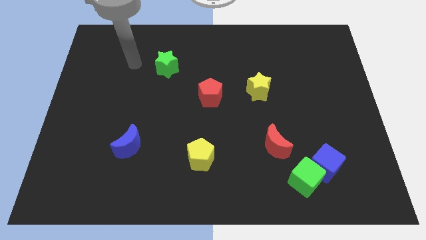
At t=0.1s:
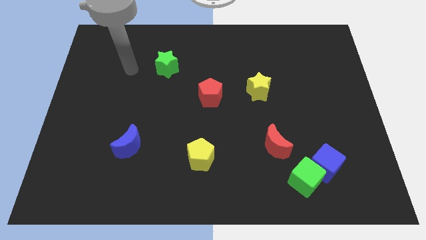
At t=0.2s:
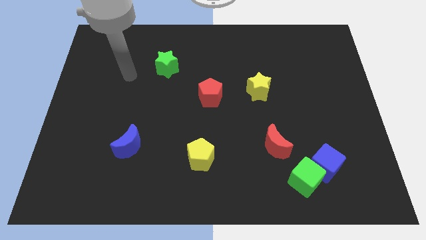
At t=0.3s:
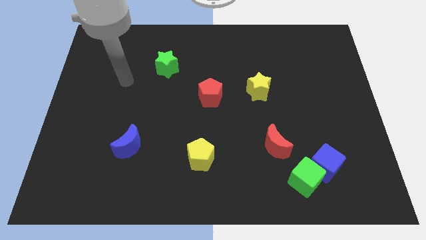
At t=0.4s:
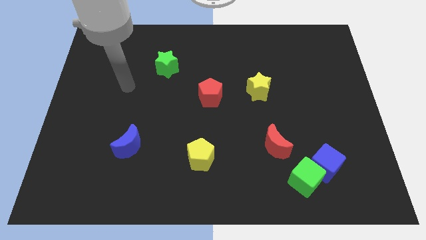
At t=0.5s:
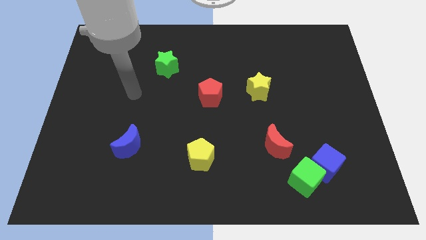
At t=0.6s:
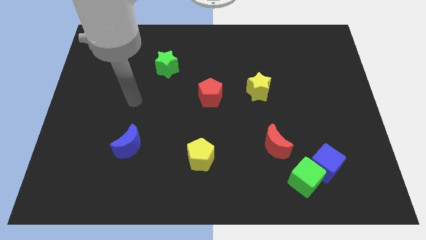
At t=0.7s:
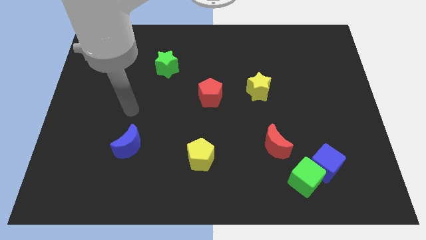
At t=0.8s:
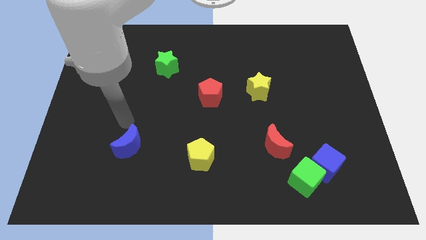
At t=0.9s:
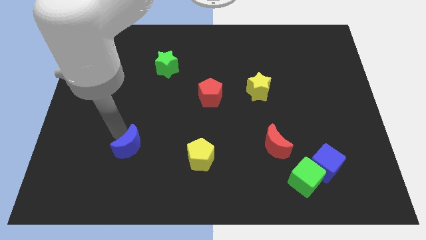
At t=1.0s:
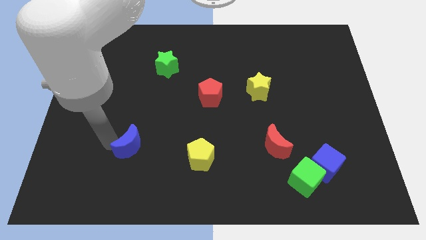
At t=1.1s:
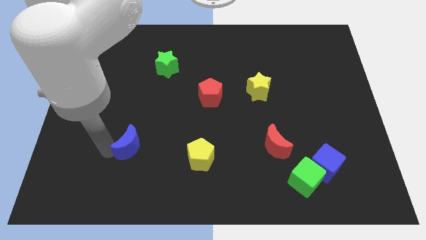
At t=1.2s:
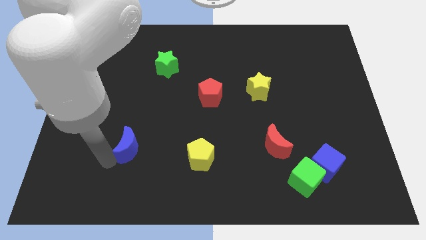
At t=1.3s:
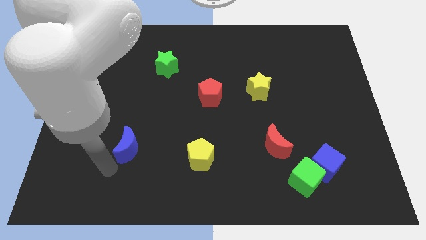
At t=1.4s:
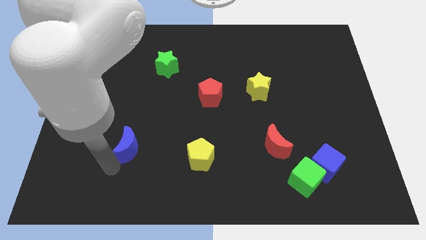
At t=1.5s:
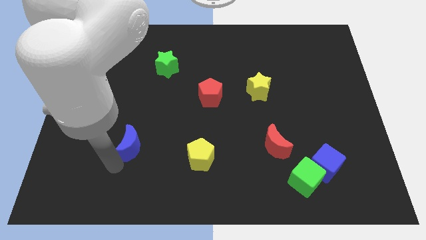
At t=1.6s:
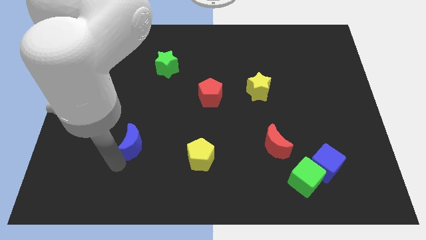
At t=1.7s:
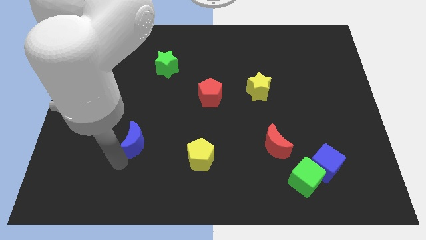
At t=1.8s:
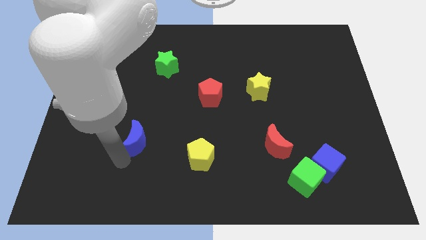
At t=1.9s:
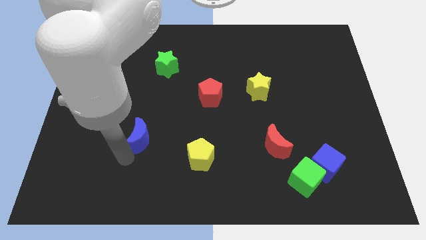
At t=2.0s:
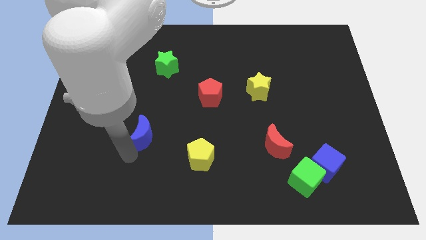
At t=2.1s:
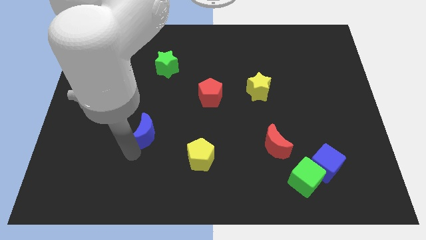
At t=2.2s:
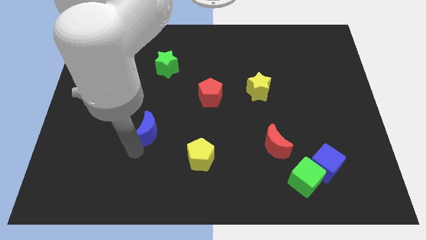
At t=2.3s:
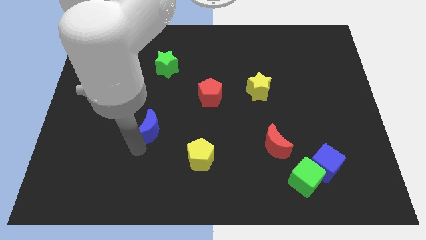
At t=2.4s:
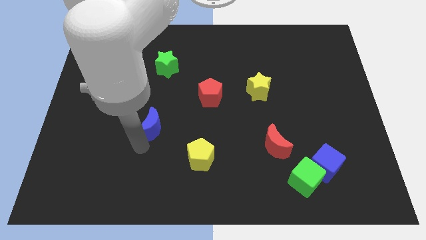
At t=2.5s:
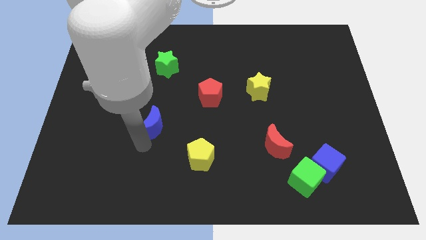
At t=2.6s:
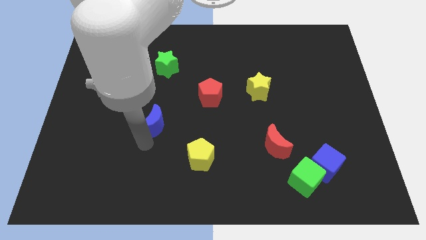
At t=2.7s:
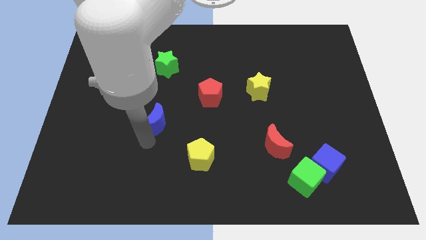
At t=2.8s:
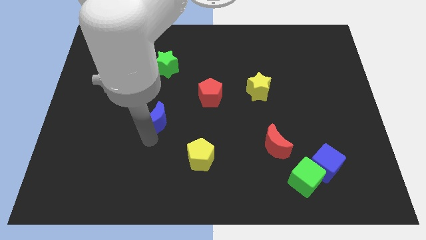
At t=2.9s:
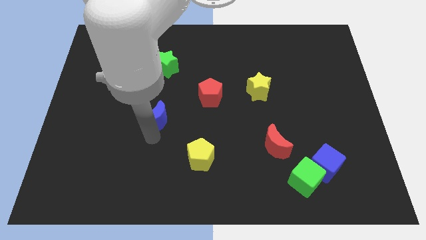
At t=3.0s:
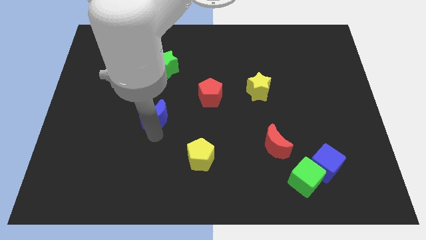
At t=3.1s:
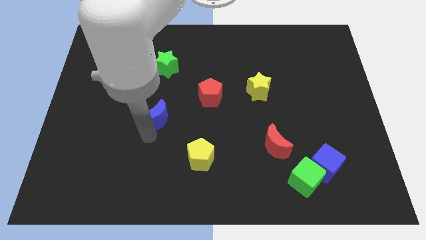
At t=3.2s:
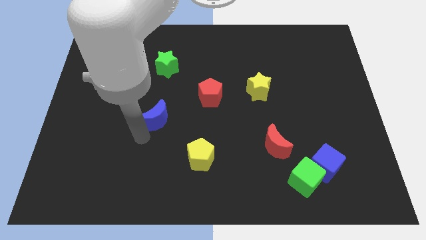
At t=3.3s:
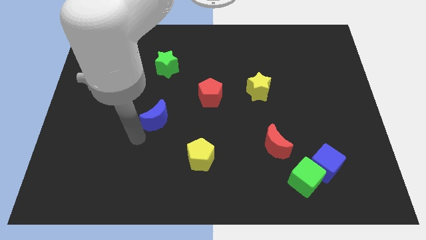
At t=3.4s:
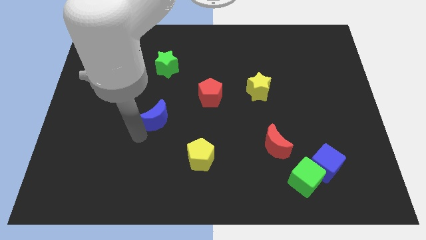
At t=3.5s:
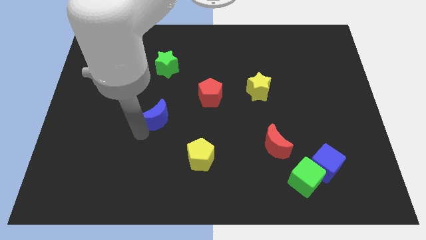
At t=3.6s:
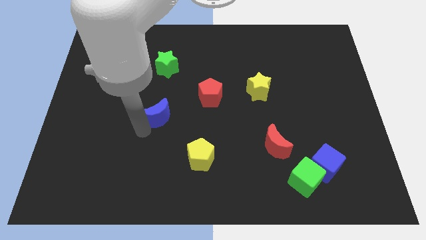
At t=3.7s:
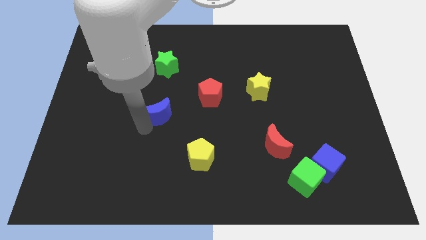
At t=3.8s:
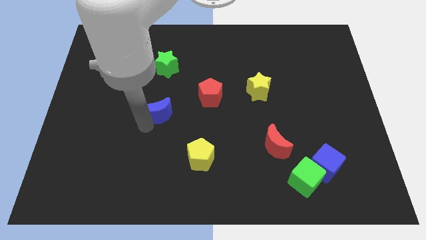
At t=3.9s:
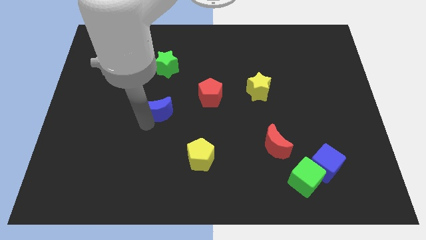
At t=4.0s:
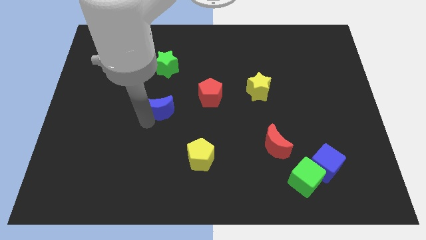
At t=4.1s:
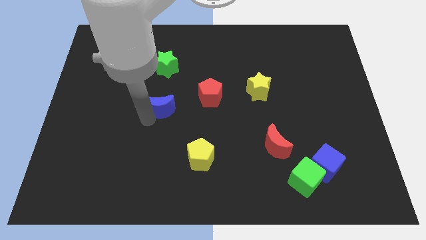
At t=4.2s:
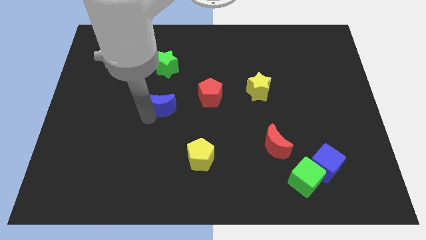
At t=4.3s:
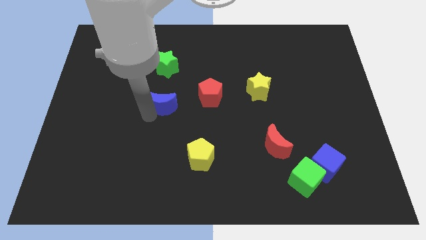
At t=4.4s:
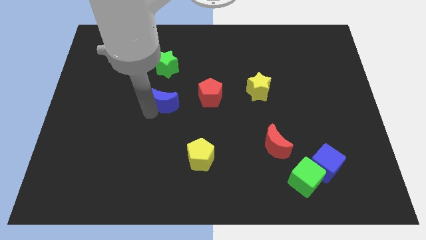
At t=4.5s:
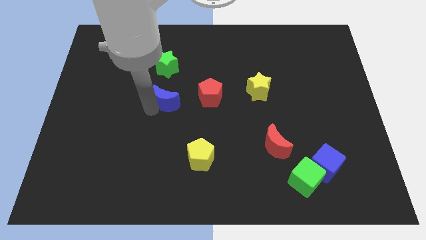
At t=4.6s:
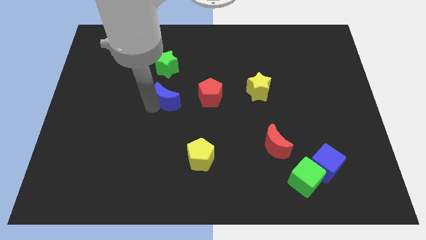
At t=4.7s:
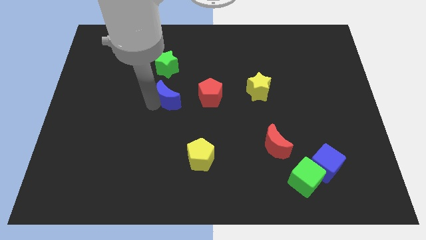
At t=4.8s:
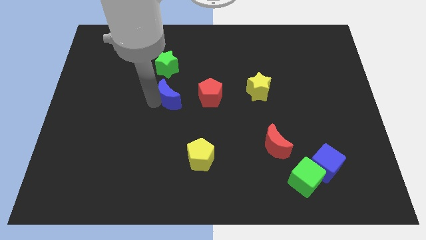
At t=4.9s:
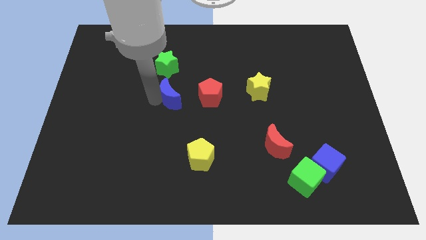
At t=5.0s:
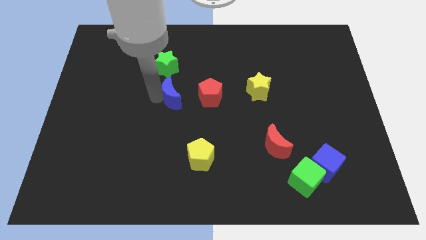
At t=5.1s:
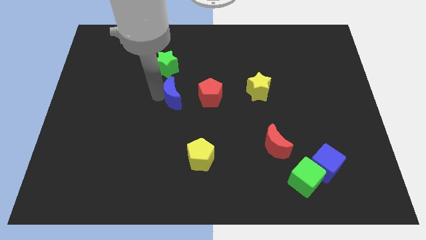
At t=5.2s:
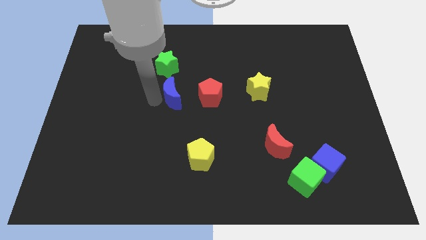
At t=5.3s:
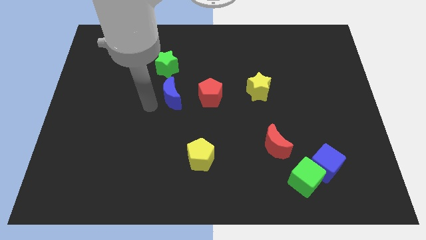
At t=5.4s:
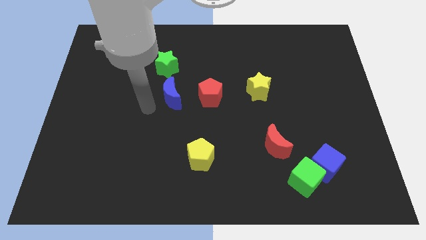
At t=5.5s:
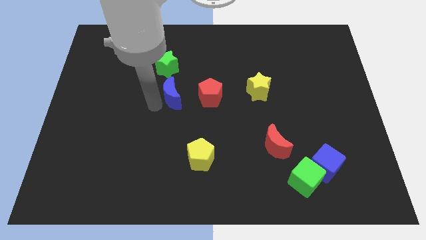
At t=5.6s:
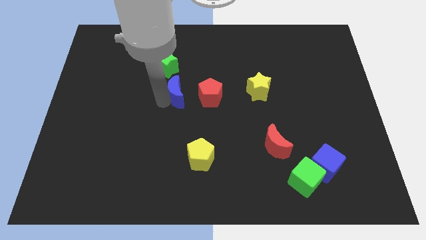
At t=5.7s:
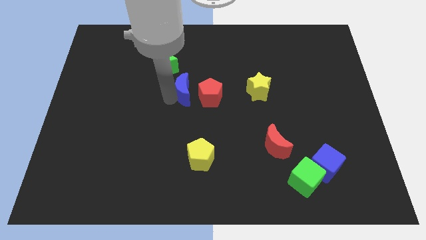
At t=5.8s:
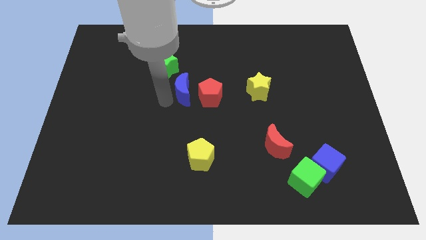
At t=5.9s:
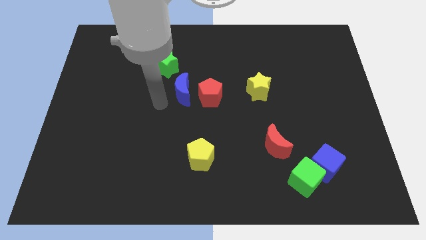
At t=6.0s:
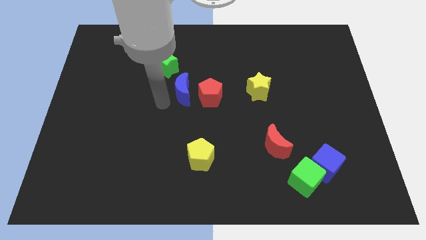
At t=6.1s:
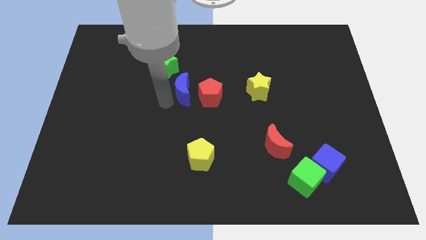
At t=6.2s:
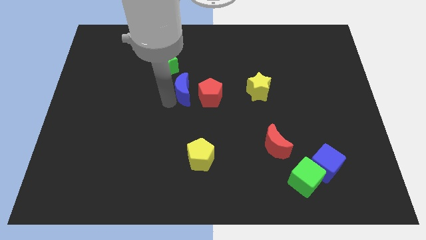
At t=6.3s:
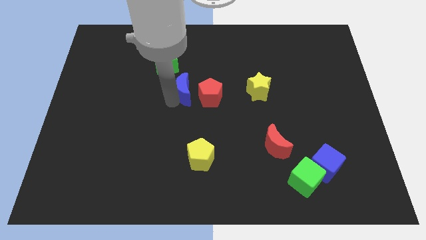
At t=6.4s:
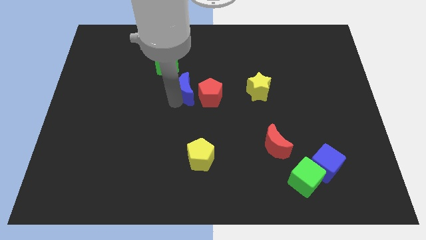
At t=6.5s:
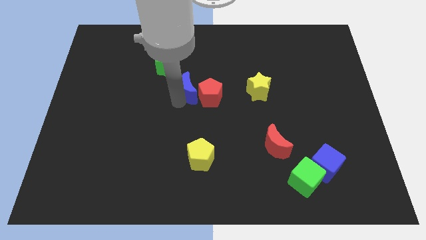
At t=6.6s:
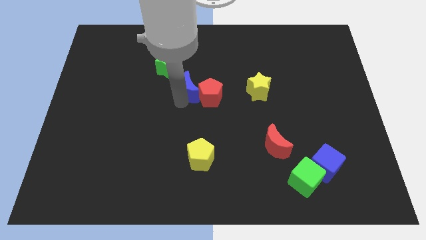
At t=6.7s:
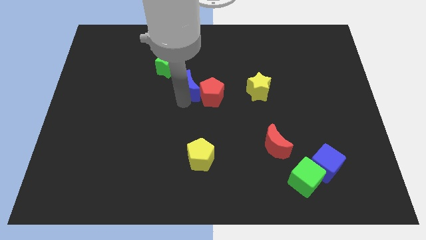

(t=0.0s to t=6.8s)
slide the blue moon upwards and right

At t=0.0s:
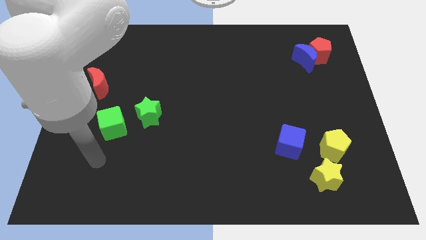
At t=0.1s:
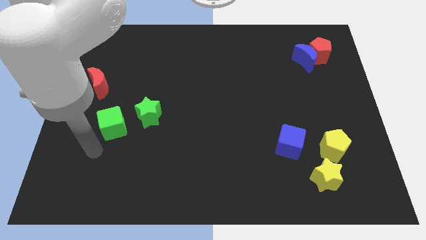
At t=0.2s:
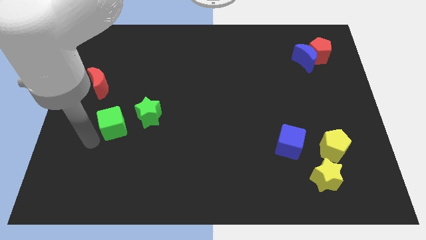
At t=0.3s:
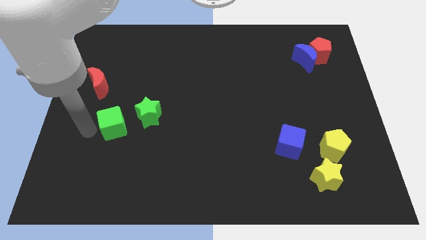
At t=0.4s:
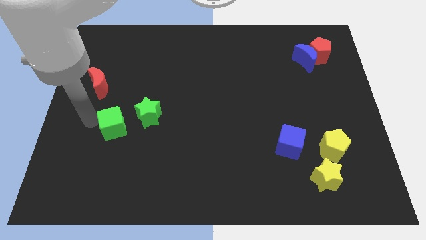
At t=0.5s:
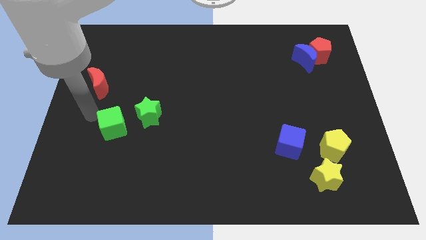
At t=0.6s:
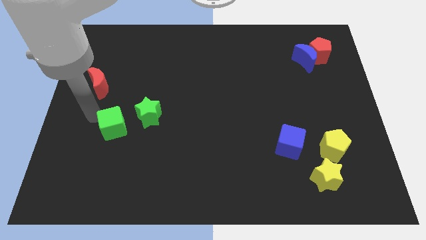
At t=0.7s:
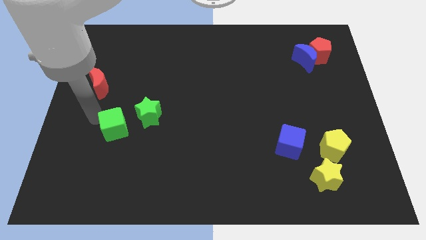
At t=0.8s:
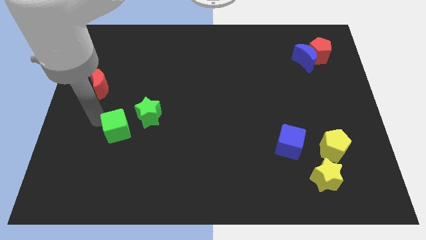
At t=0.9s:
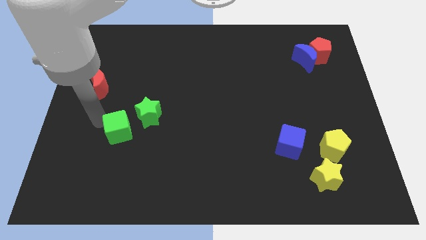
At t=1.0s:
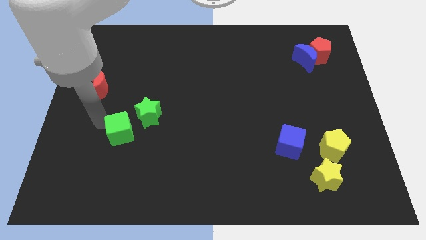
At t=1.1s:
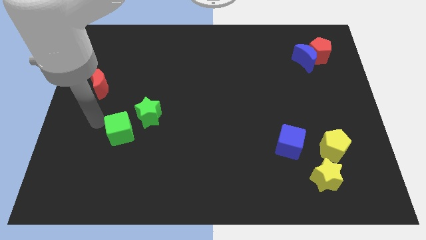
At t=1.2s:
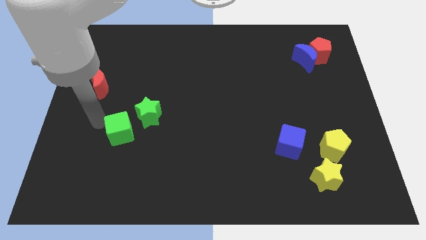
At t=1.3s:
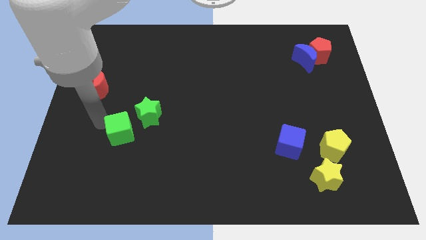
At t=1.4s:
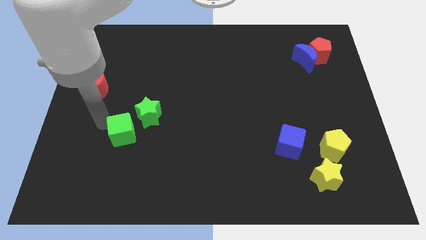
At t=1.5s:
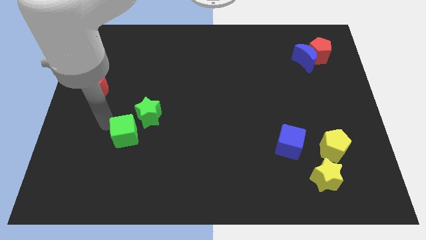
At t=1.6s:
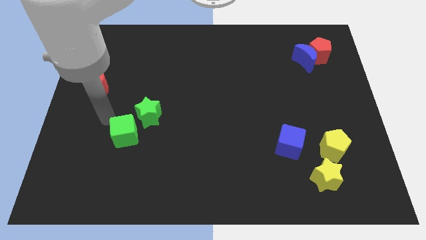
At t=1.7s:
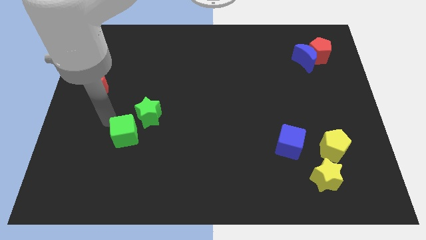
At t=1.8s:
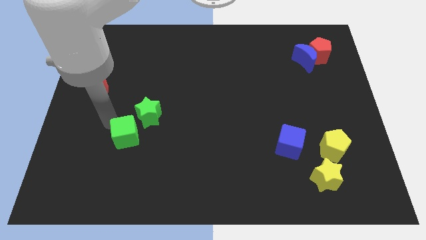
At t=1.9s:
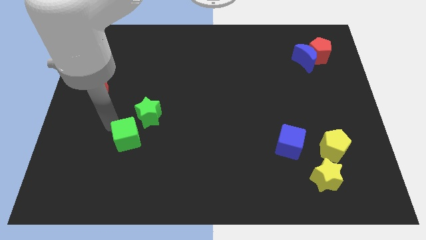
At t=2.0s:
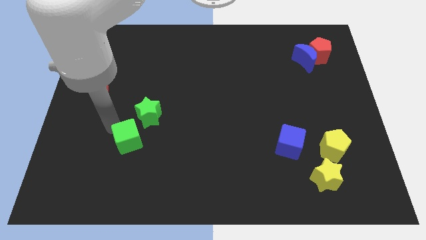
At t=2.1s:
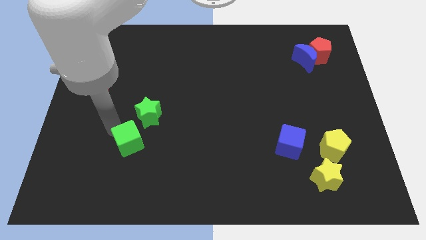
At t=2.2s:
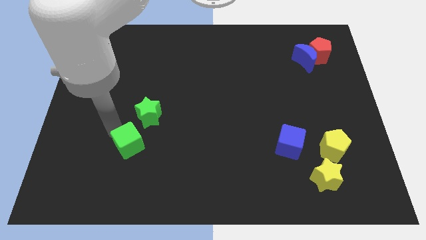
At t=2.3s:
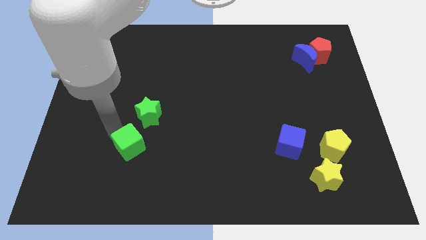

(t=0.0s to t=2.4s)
move the green cube a bit down and to the right
